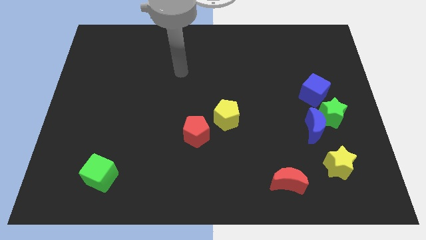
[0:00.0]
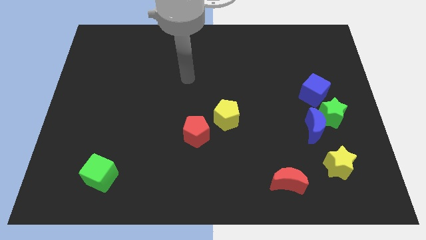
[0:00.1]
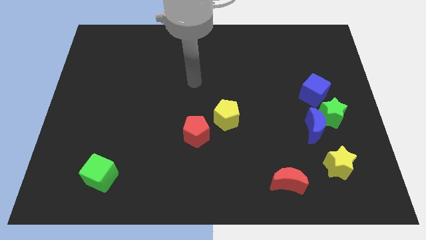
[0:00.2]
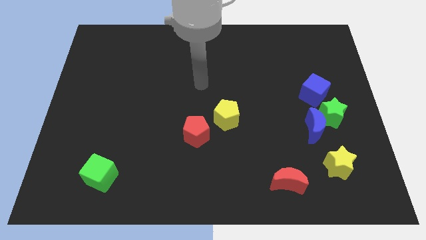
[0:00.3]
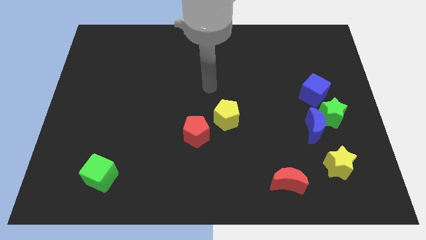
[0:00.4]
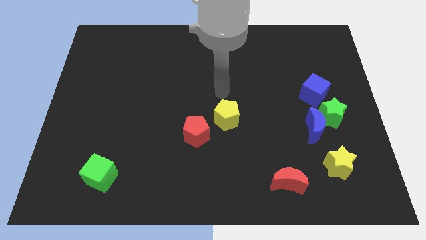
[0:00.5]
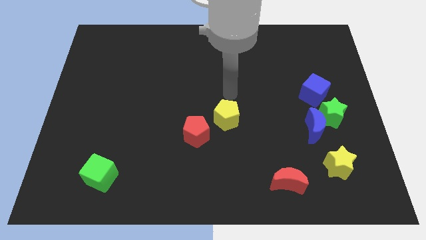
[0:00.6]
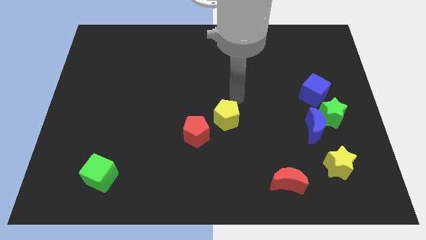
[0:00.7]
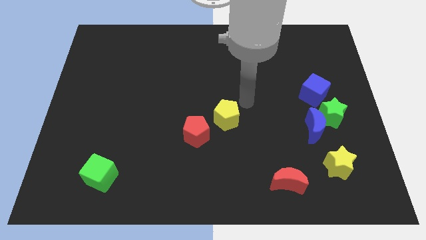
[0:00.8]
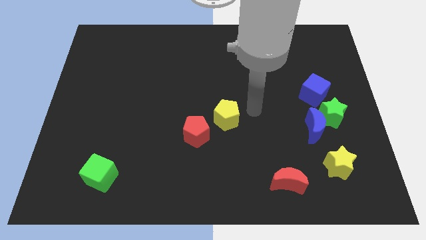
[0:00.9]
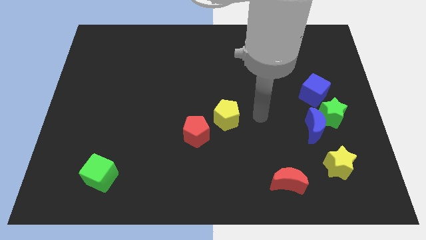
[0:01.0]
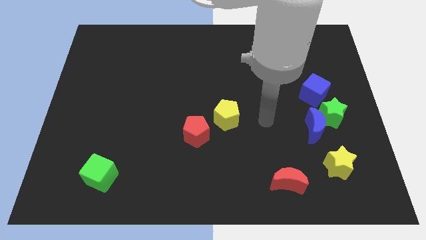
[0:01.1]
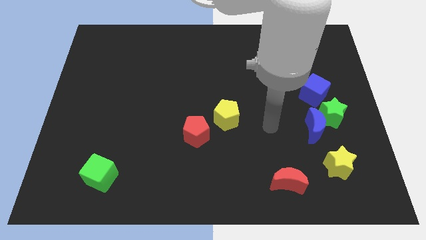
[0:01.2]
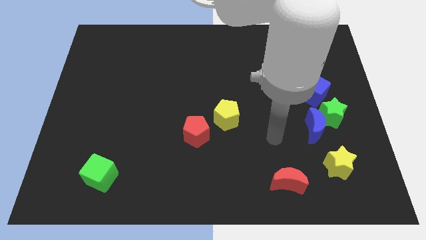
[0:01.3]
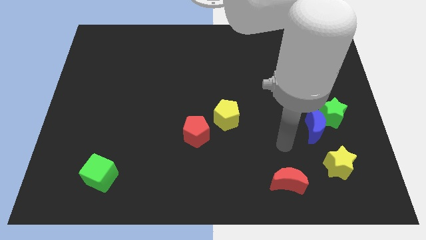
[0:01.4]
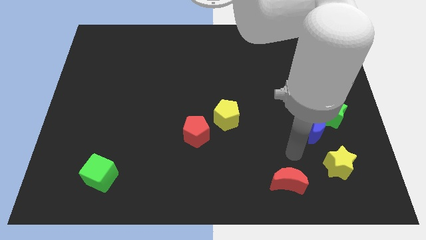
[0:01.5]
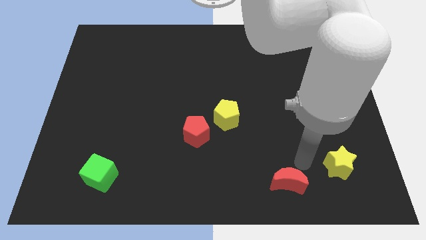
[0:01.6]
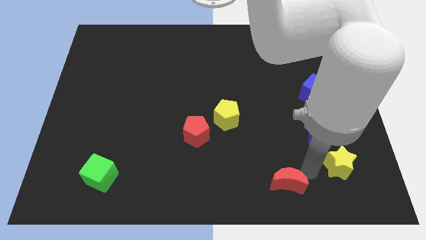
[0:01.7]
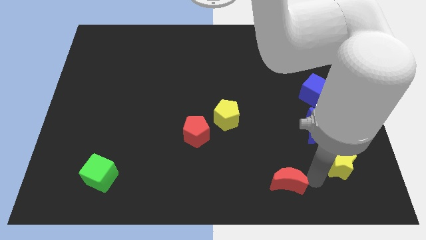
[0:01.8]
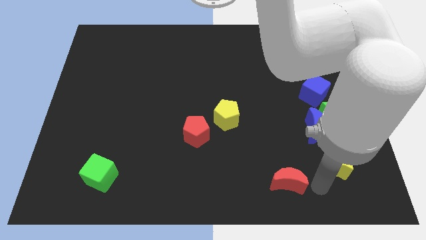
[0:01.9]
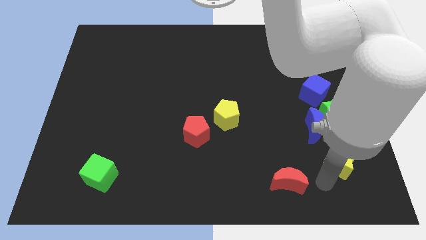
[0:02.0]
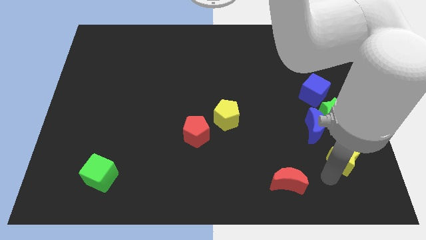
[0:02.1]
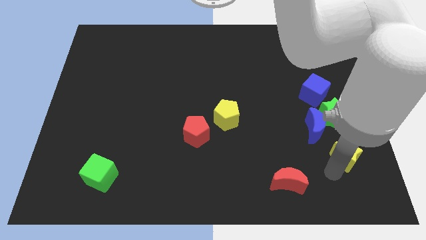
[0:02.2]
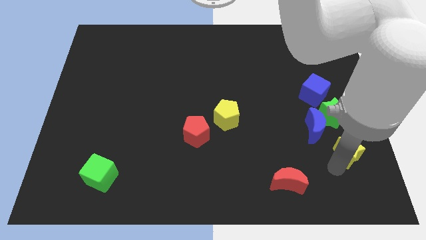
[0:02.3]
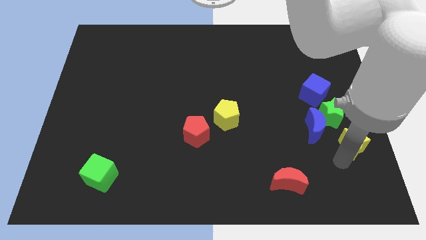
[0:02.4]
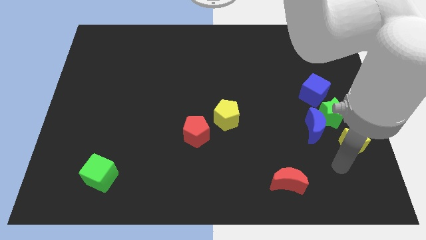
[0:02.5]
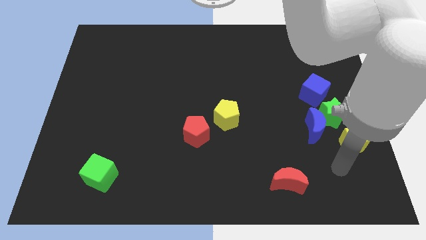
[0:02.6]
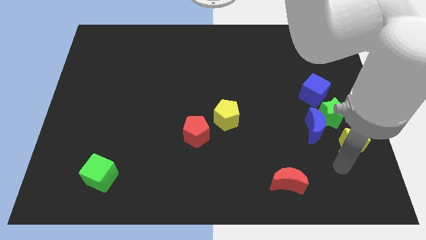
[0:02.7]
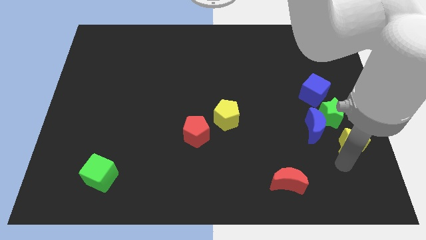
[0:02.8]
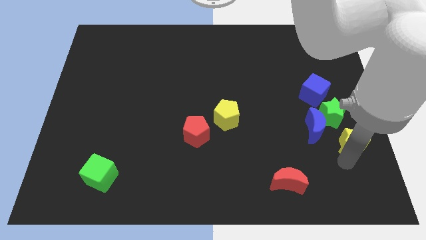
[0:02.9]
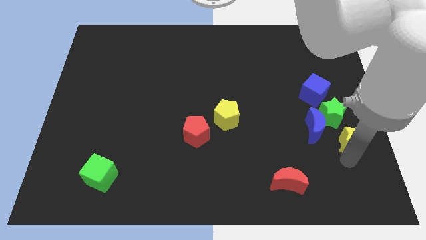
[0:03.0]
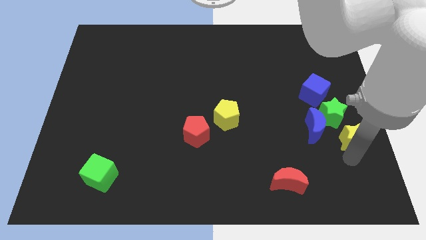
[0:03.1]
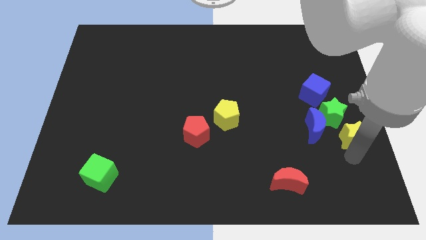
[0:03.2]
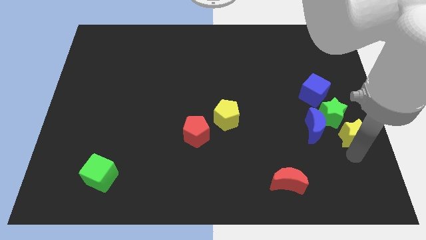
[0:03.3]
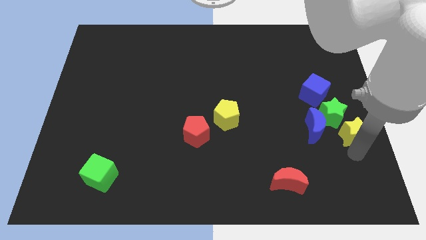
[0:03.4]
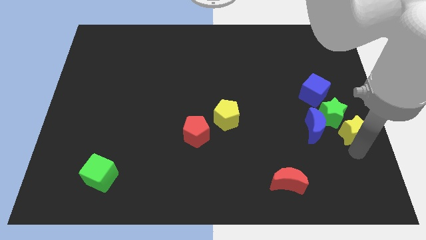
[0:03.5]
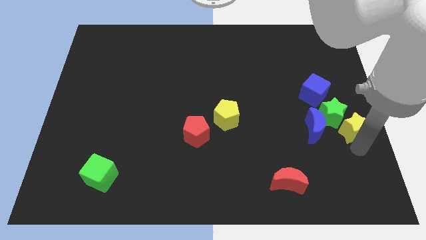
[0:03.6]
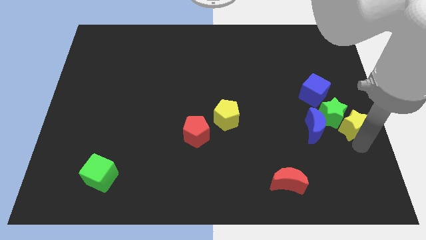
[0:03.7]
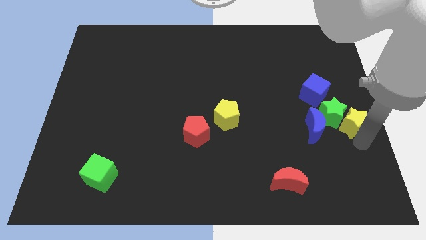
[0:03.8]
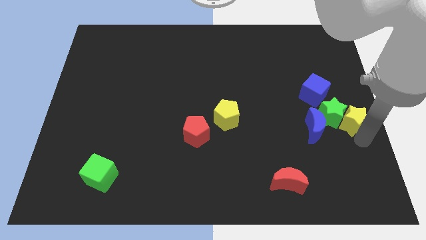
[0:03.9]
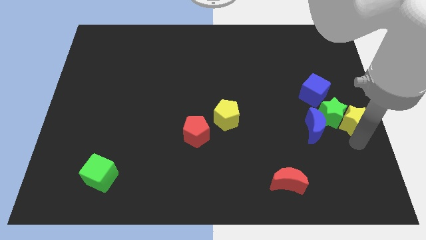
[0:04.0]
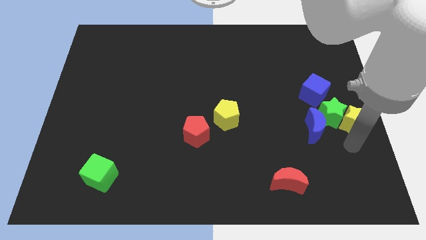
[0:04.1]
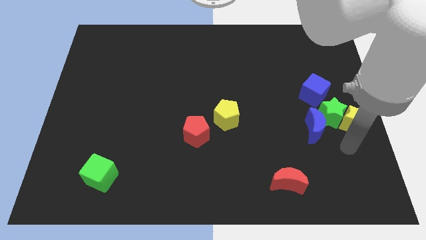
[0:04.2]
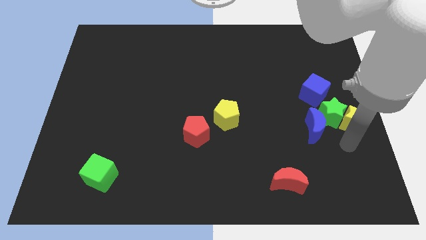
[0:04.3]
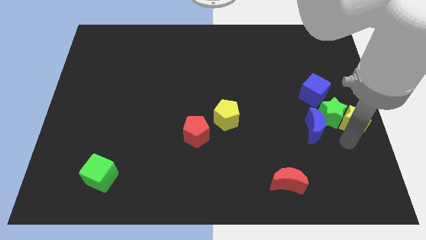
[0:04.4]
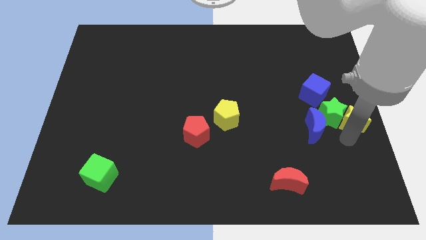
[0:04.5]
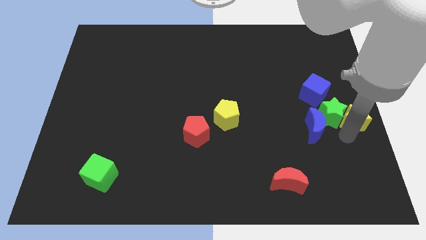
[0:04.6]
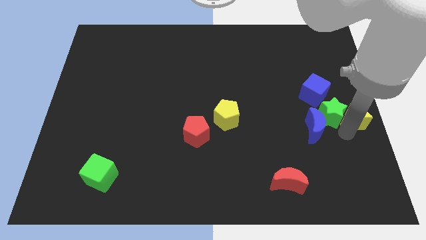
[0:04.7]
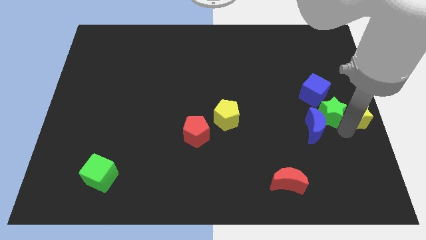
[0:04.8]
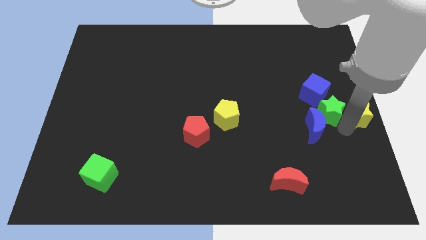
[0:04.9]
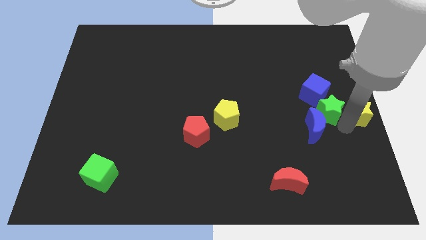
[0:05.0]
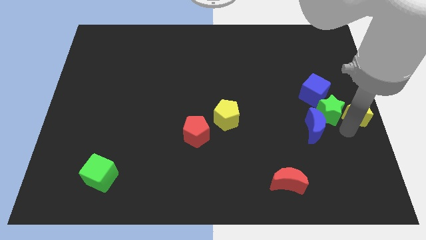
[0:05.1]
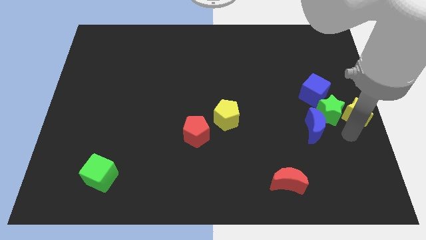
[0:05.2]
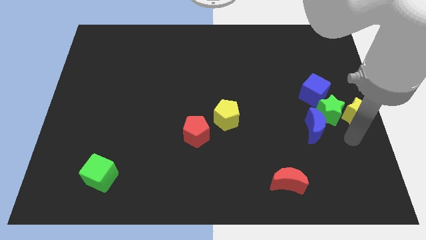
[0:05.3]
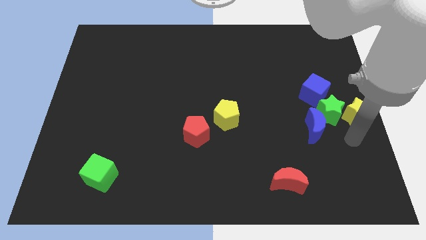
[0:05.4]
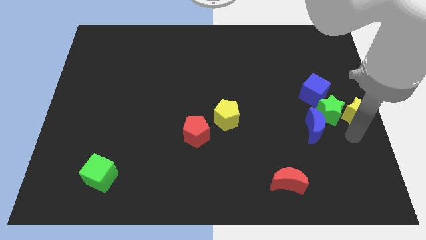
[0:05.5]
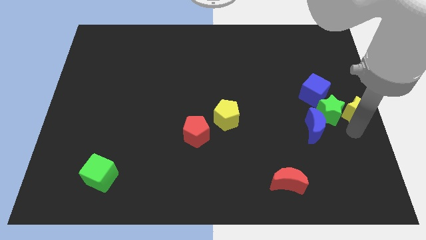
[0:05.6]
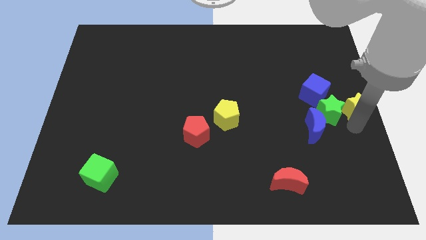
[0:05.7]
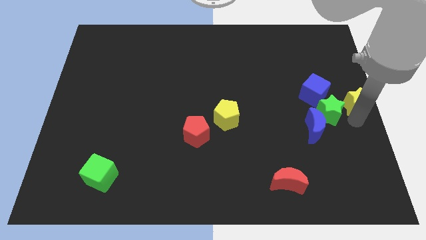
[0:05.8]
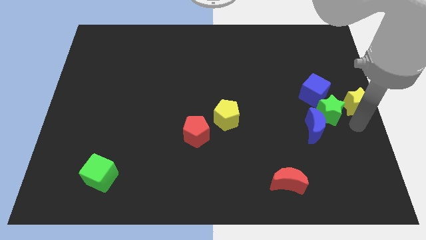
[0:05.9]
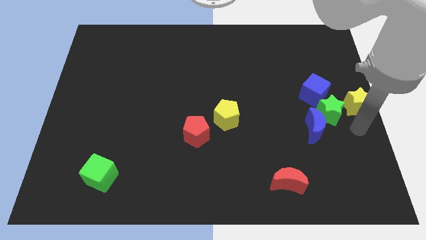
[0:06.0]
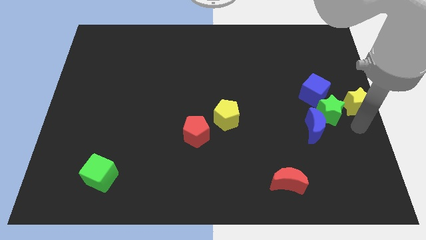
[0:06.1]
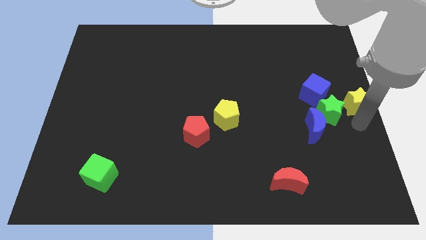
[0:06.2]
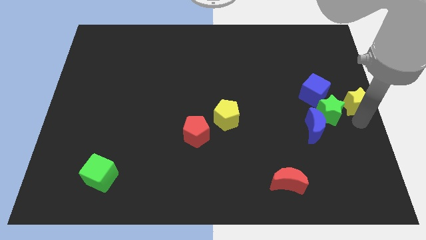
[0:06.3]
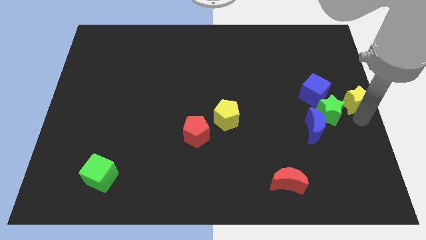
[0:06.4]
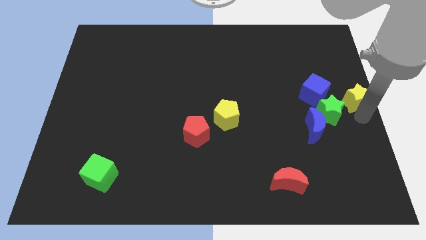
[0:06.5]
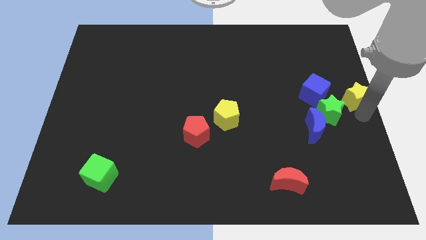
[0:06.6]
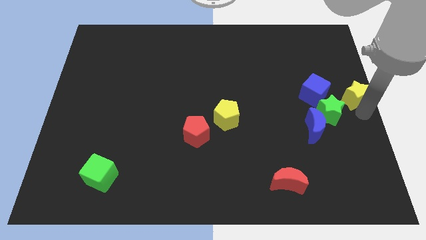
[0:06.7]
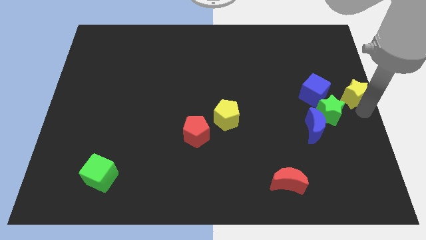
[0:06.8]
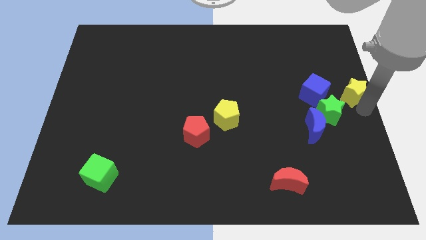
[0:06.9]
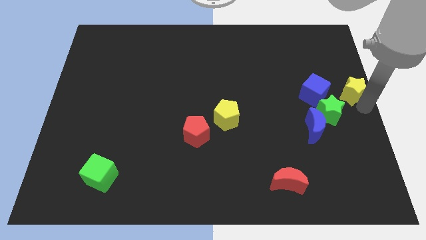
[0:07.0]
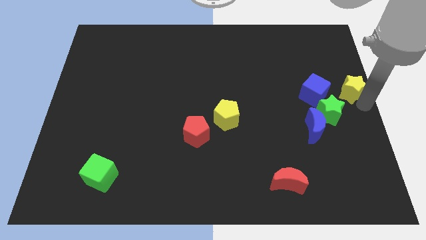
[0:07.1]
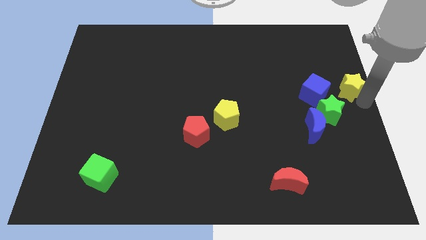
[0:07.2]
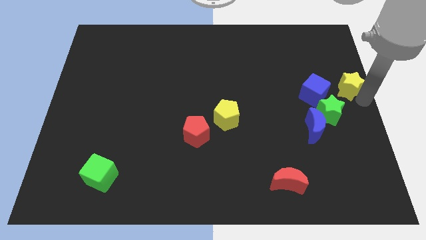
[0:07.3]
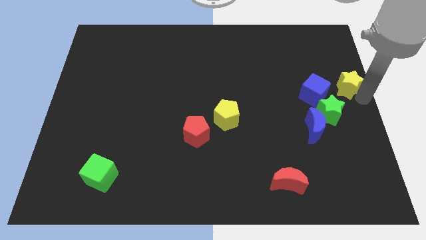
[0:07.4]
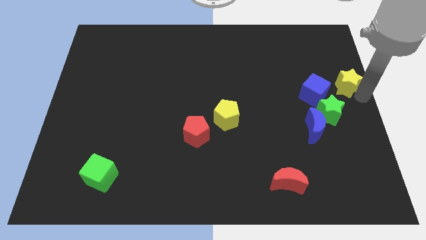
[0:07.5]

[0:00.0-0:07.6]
move the yellow star upwards

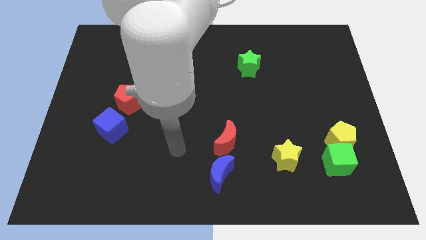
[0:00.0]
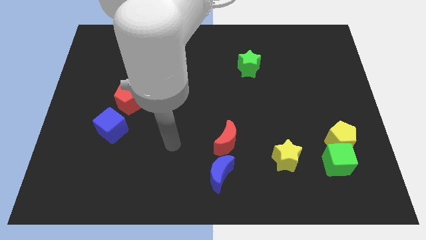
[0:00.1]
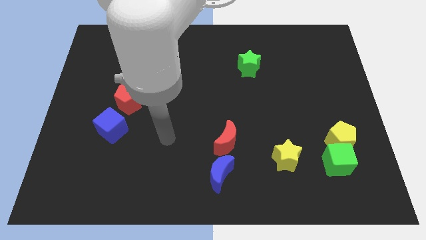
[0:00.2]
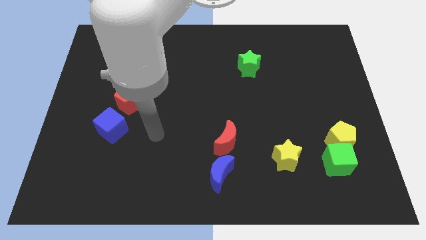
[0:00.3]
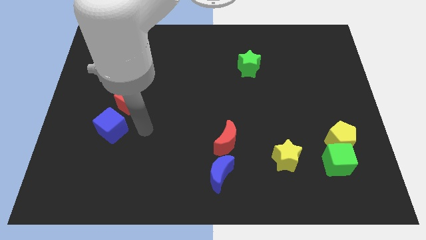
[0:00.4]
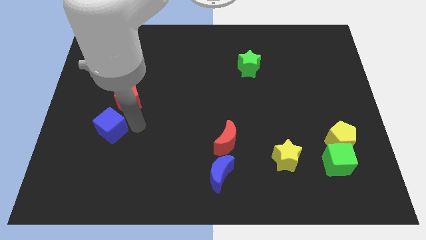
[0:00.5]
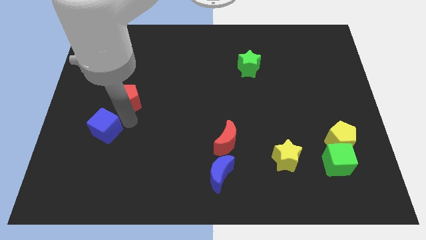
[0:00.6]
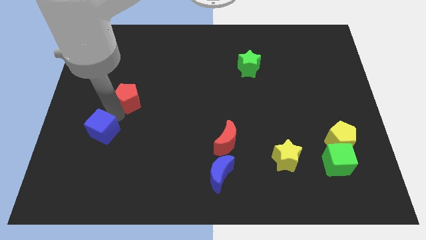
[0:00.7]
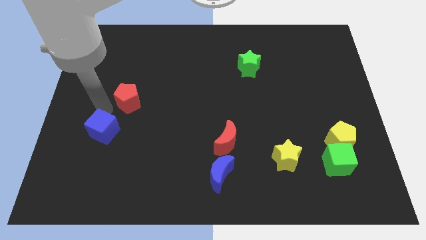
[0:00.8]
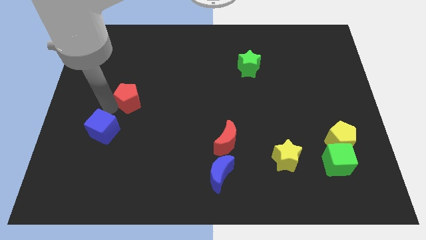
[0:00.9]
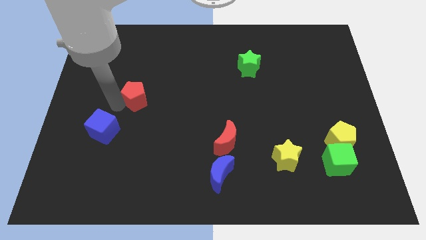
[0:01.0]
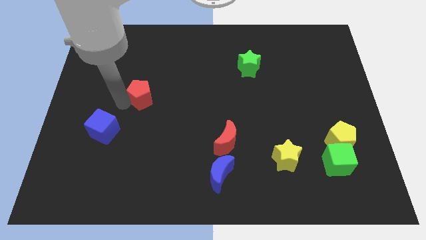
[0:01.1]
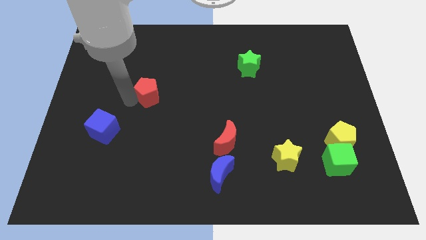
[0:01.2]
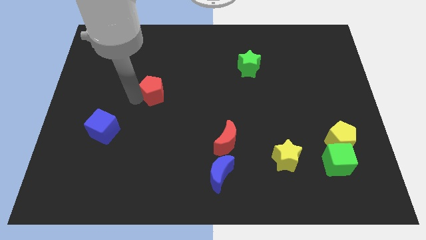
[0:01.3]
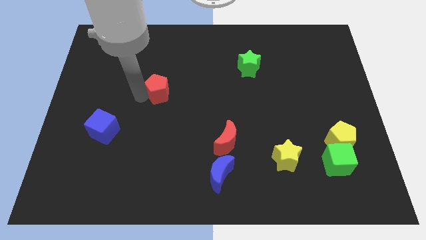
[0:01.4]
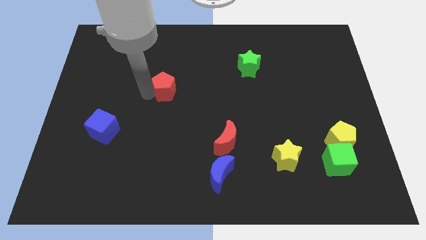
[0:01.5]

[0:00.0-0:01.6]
slide the red pentagon a little to the right
